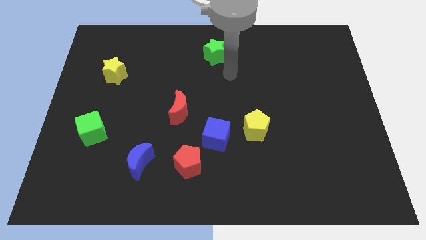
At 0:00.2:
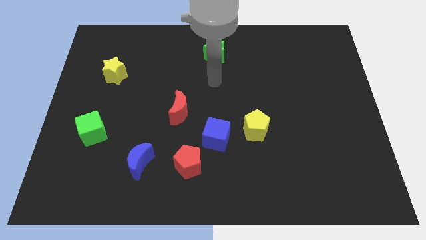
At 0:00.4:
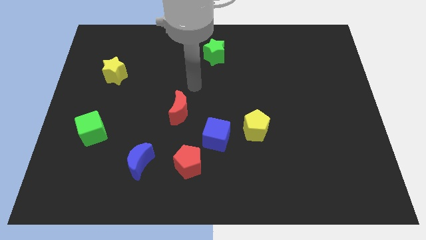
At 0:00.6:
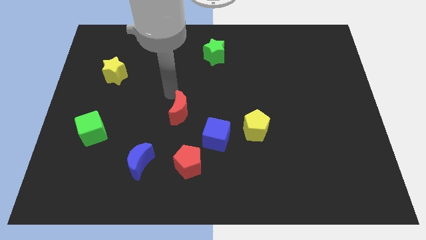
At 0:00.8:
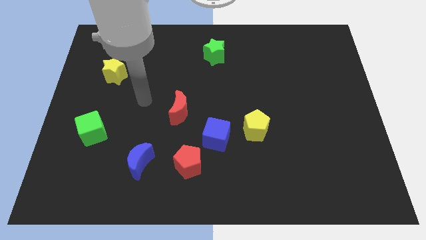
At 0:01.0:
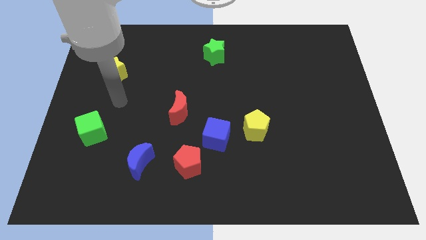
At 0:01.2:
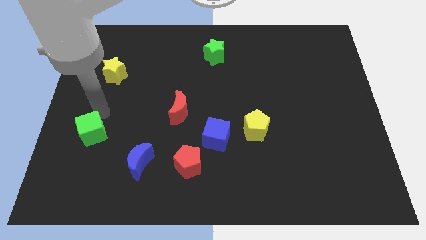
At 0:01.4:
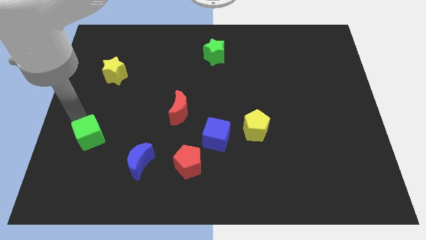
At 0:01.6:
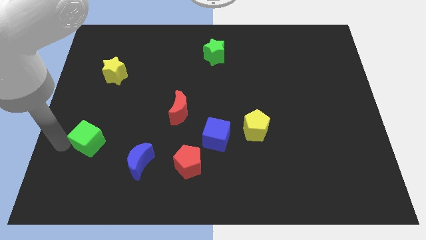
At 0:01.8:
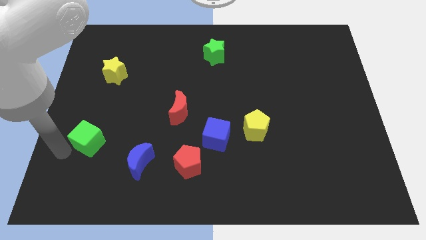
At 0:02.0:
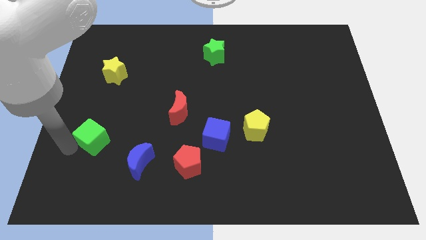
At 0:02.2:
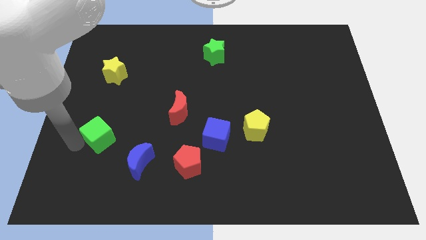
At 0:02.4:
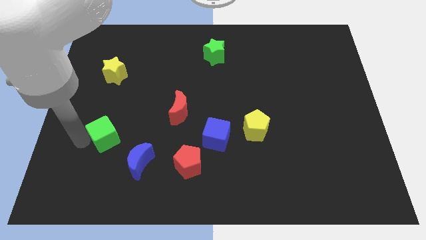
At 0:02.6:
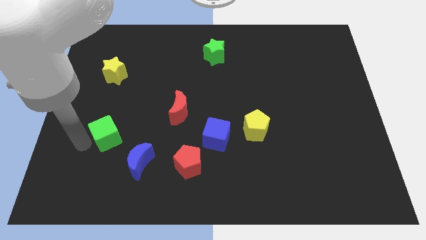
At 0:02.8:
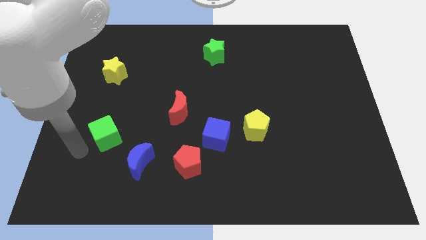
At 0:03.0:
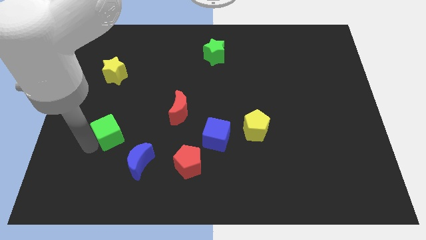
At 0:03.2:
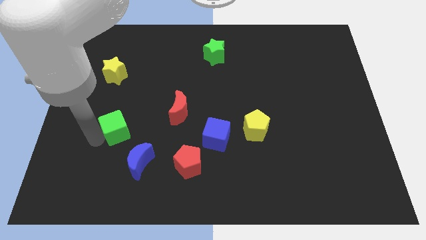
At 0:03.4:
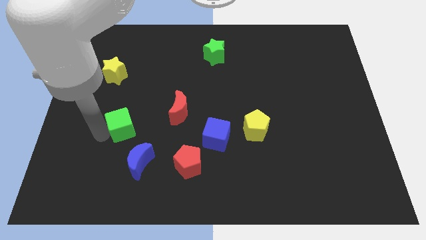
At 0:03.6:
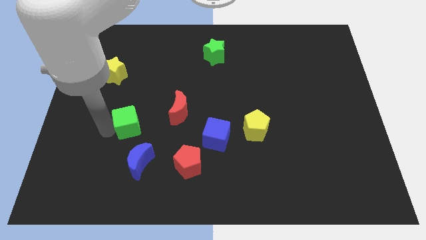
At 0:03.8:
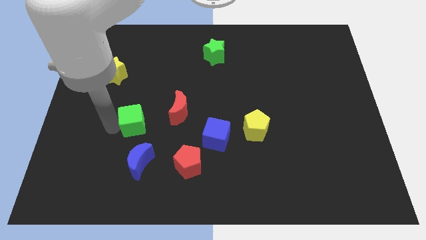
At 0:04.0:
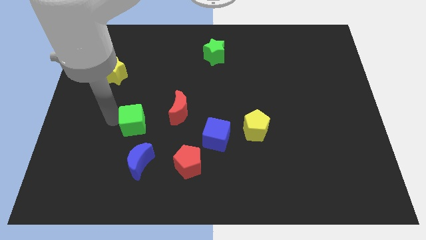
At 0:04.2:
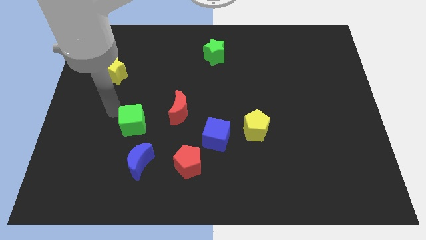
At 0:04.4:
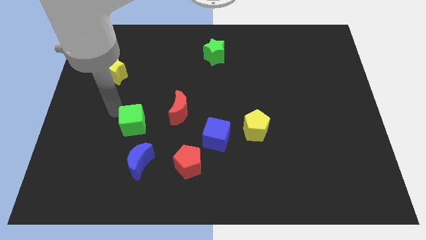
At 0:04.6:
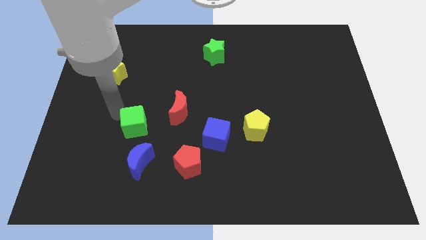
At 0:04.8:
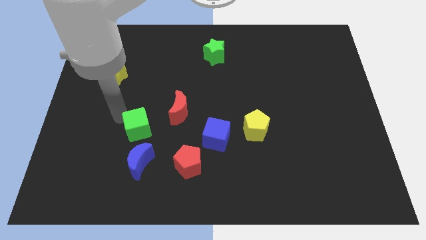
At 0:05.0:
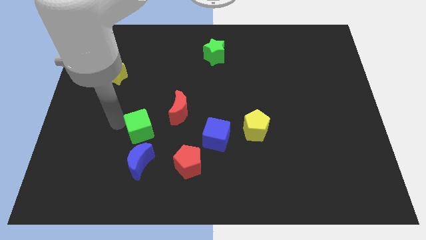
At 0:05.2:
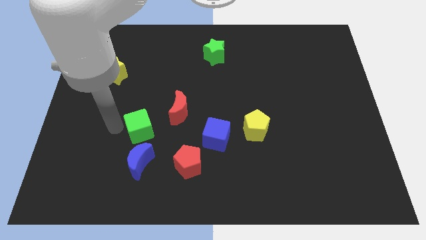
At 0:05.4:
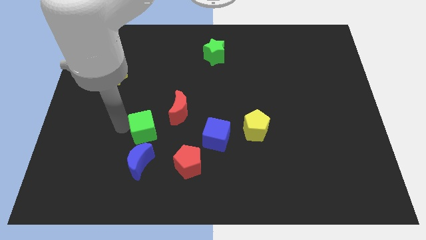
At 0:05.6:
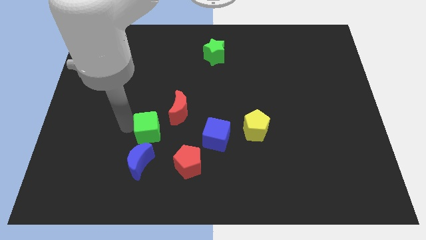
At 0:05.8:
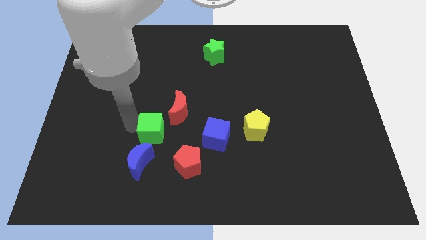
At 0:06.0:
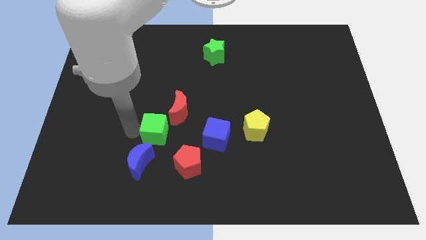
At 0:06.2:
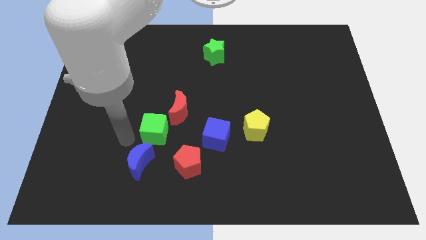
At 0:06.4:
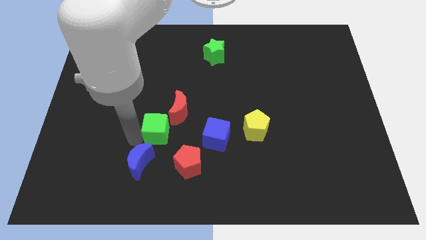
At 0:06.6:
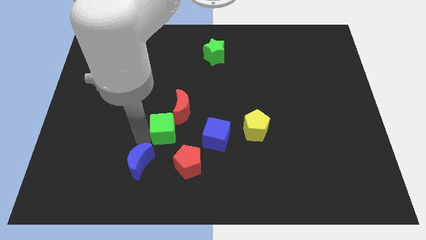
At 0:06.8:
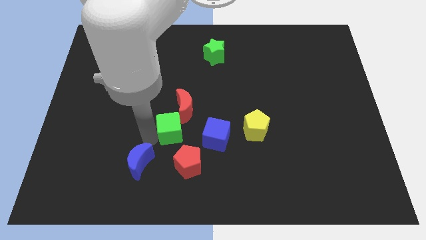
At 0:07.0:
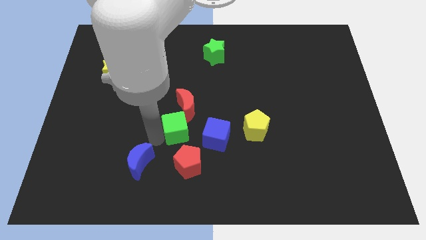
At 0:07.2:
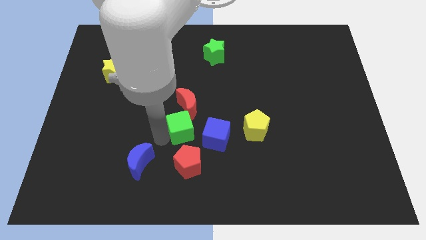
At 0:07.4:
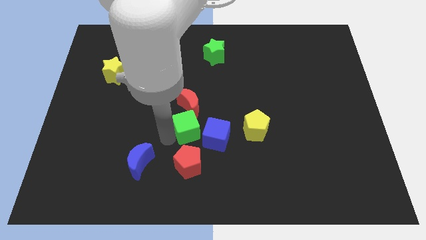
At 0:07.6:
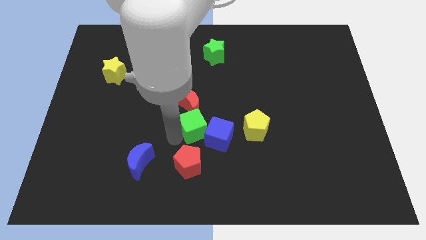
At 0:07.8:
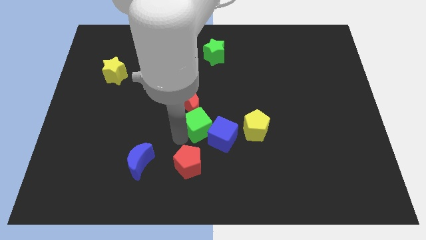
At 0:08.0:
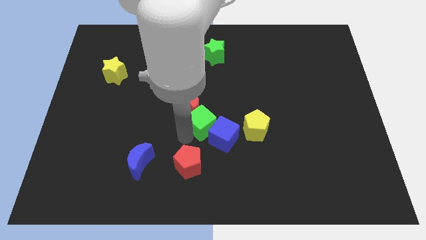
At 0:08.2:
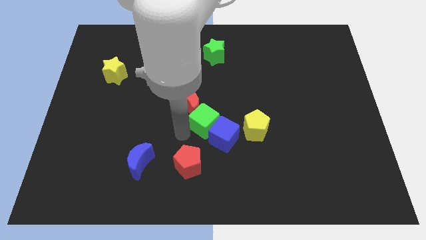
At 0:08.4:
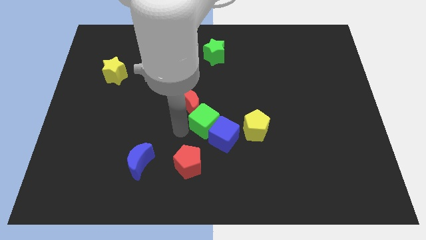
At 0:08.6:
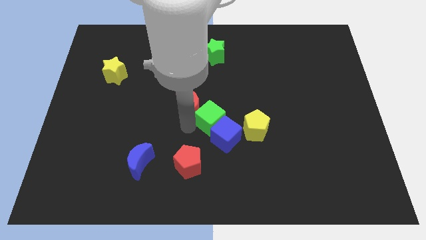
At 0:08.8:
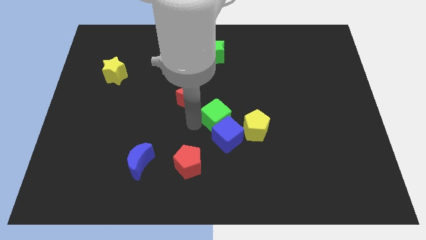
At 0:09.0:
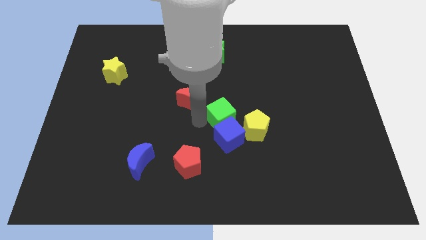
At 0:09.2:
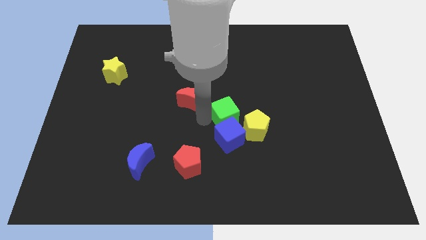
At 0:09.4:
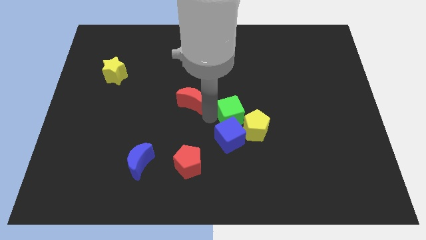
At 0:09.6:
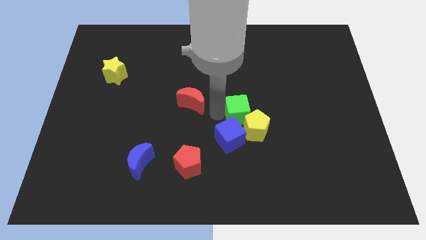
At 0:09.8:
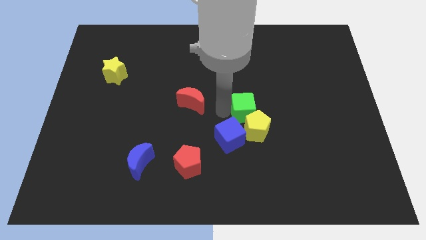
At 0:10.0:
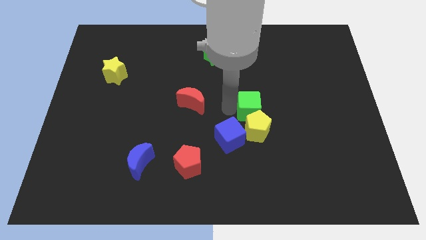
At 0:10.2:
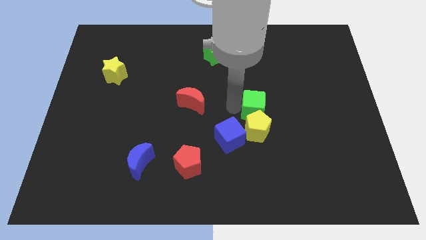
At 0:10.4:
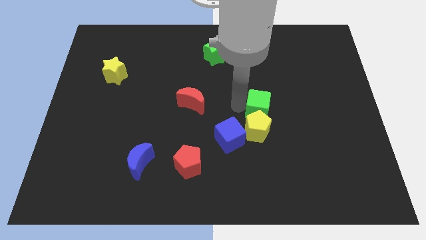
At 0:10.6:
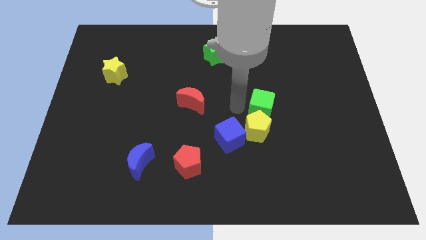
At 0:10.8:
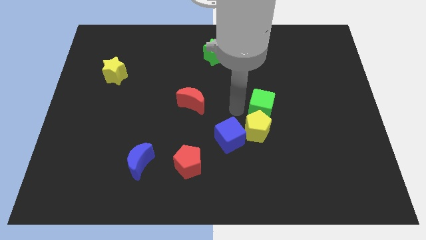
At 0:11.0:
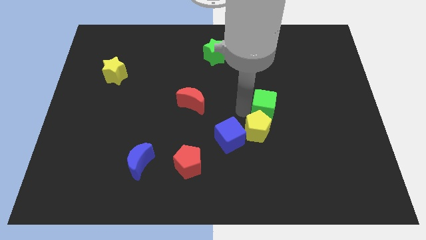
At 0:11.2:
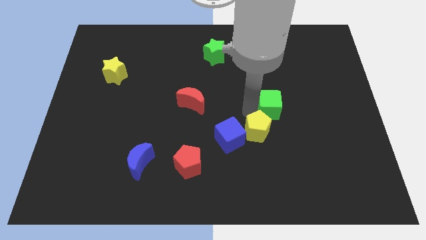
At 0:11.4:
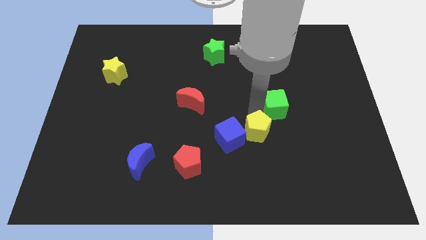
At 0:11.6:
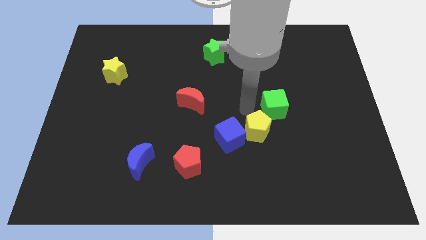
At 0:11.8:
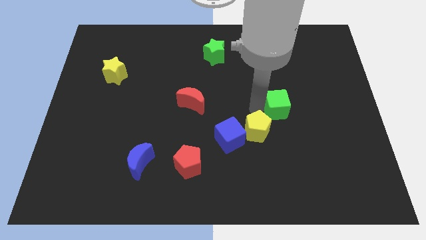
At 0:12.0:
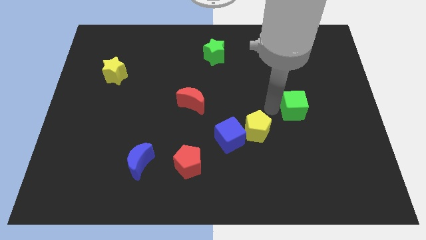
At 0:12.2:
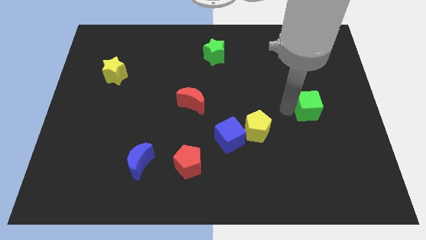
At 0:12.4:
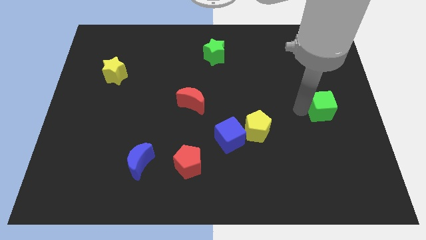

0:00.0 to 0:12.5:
slide the green cube to the center right

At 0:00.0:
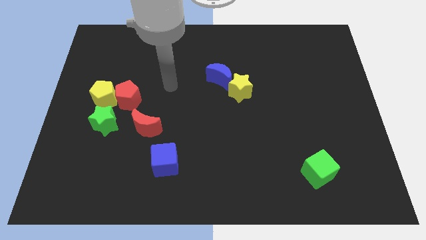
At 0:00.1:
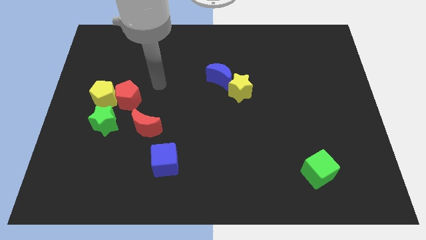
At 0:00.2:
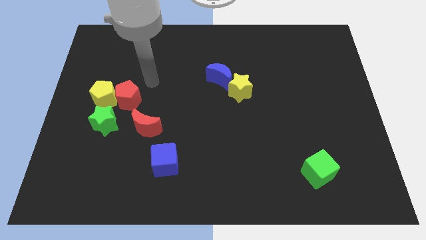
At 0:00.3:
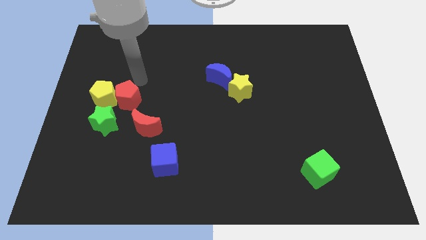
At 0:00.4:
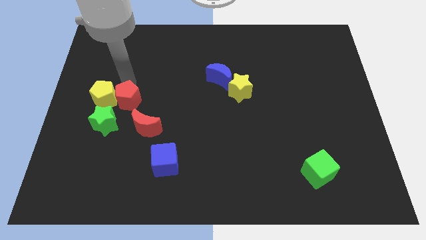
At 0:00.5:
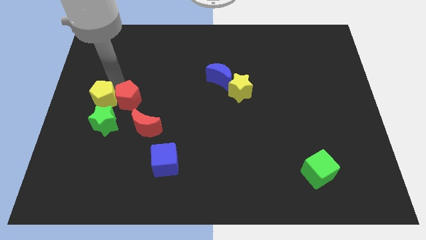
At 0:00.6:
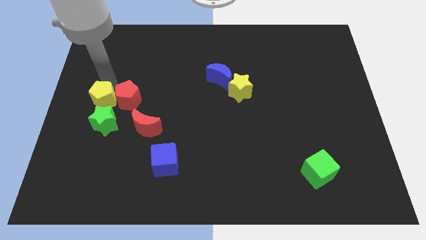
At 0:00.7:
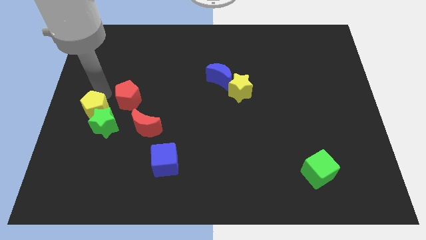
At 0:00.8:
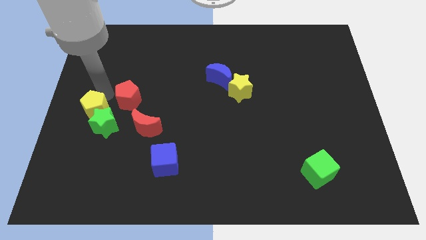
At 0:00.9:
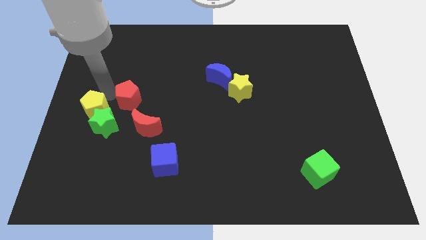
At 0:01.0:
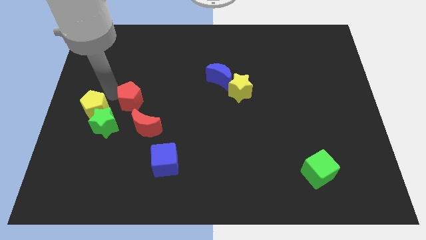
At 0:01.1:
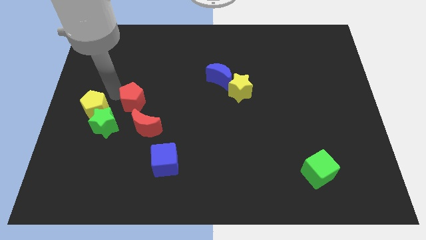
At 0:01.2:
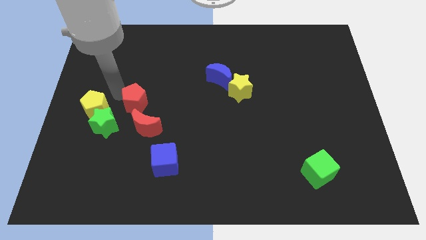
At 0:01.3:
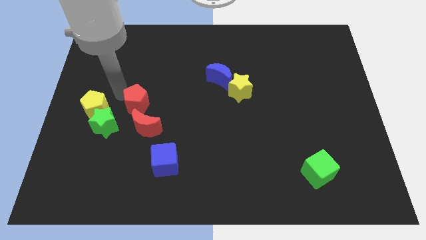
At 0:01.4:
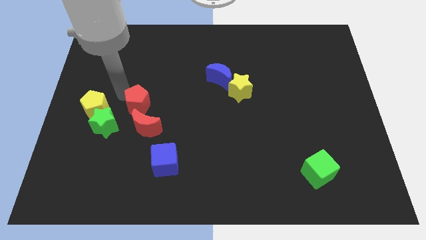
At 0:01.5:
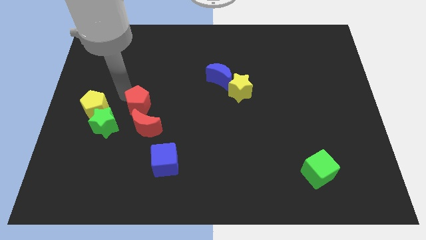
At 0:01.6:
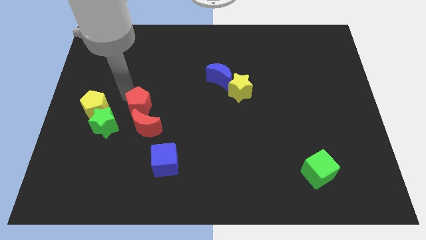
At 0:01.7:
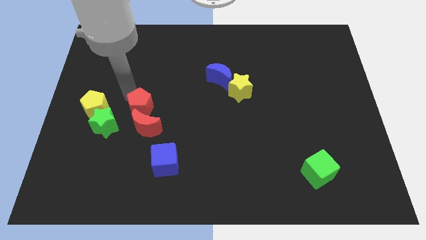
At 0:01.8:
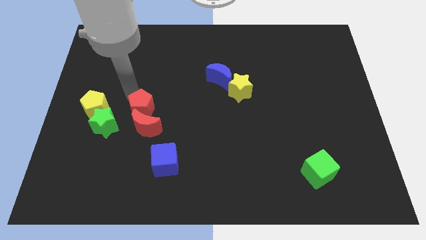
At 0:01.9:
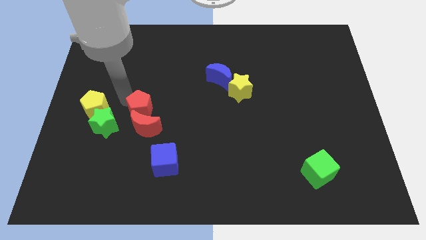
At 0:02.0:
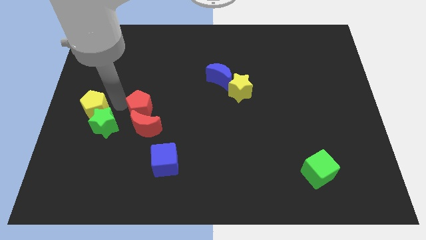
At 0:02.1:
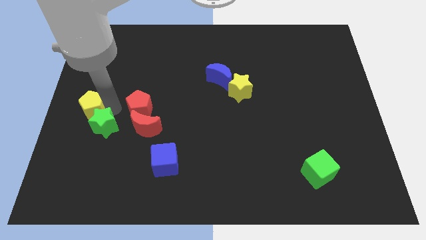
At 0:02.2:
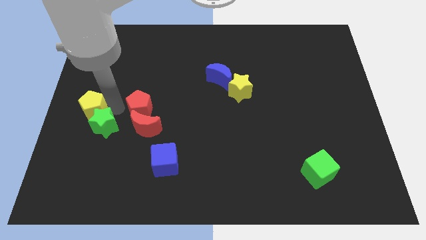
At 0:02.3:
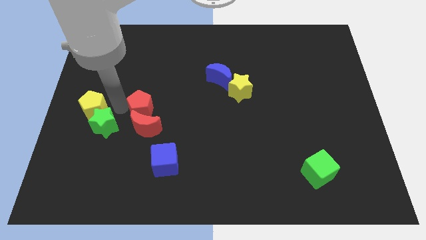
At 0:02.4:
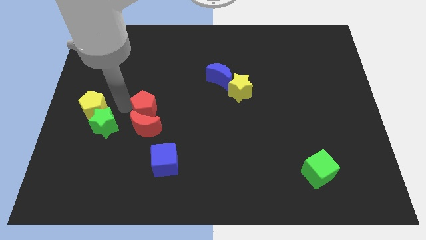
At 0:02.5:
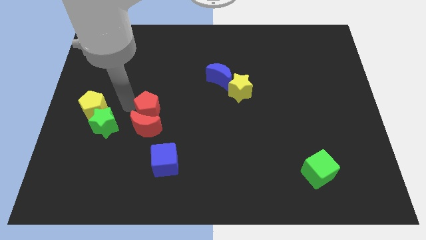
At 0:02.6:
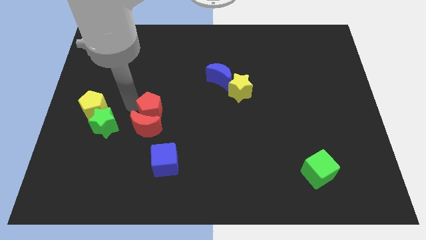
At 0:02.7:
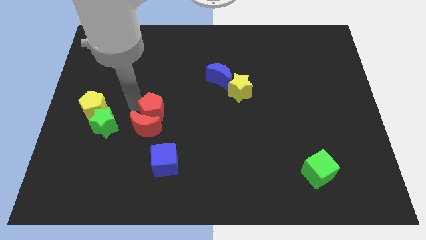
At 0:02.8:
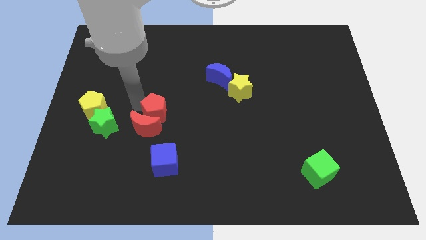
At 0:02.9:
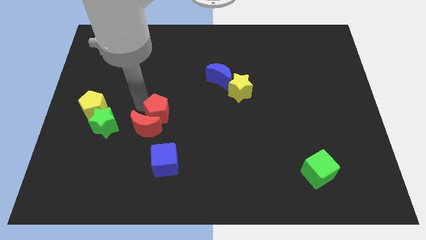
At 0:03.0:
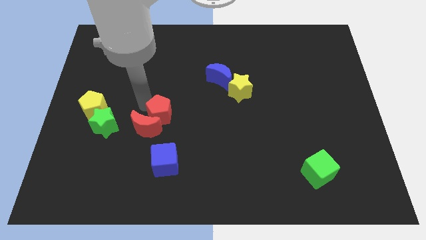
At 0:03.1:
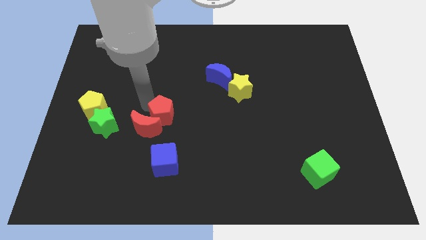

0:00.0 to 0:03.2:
slide the red pentagon to the center
